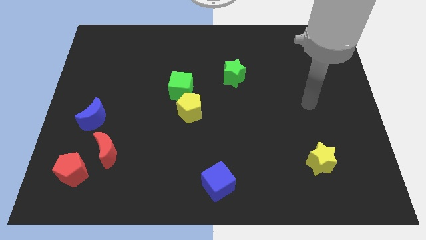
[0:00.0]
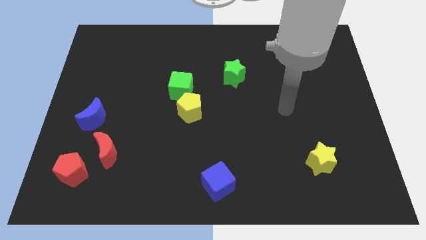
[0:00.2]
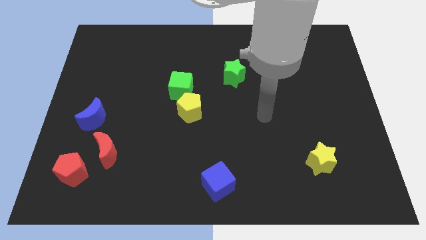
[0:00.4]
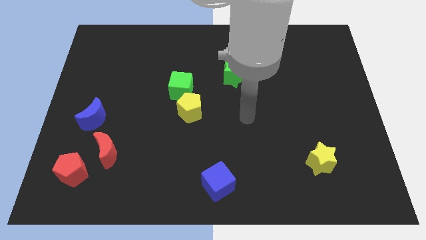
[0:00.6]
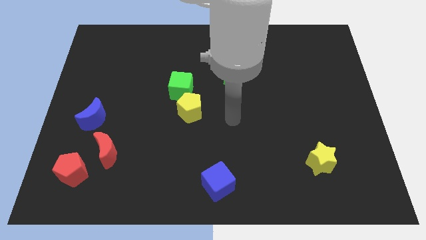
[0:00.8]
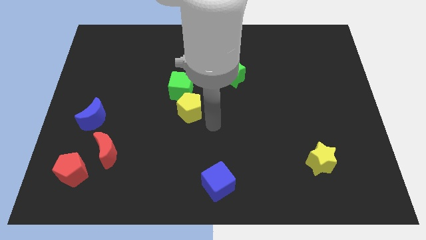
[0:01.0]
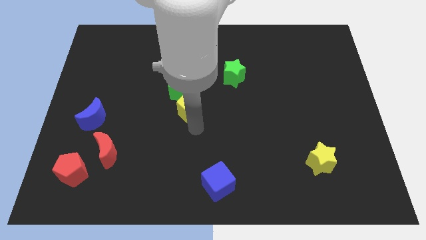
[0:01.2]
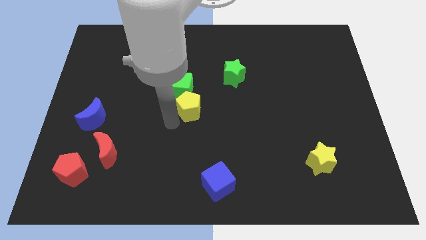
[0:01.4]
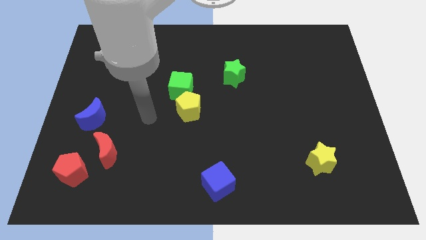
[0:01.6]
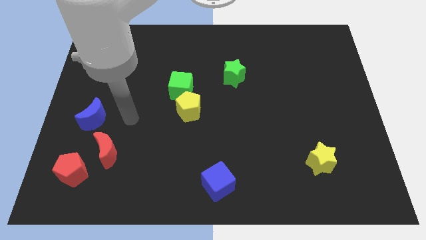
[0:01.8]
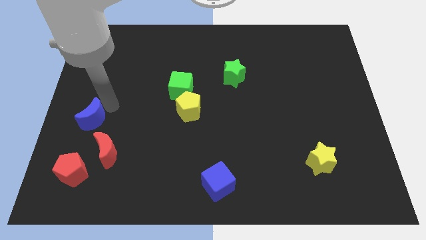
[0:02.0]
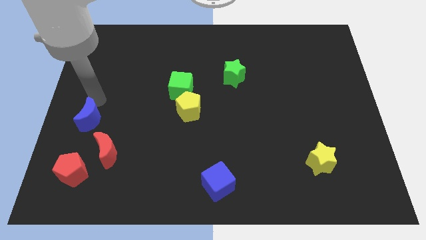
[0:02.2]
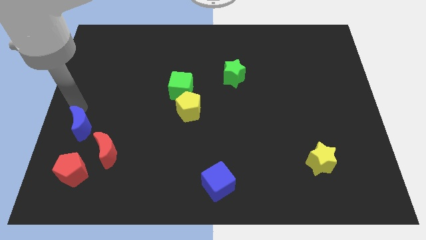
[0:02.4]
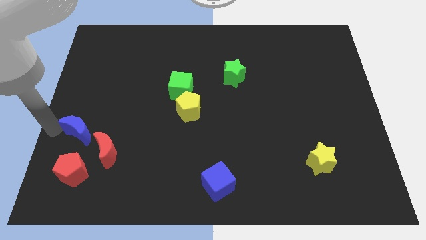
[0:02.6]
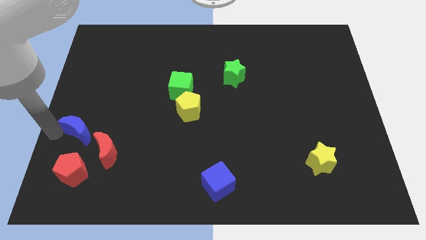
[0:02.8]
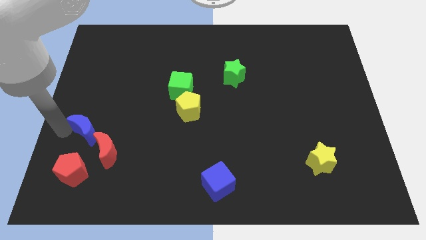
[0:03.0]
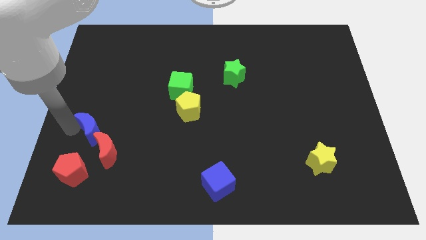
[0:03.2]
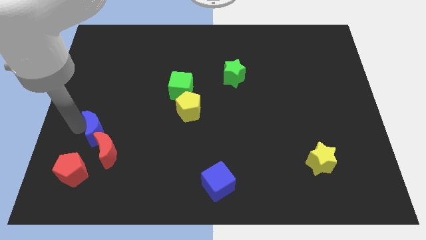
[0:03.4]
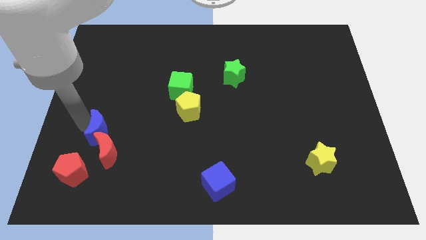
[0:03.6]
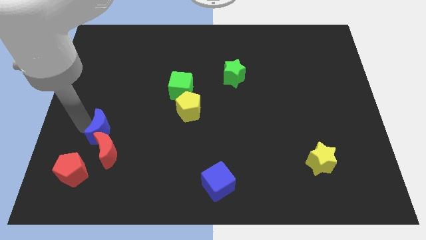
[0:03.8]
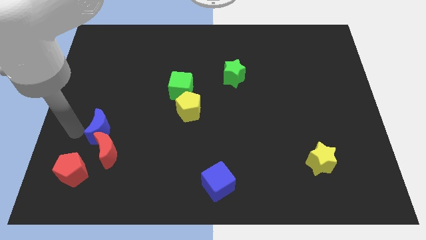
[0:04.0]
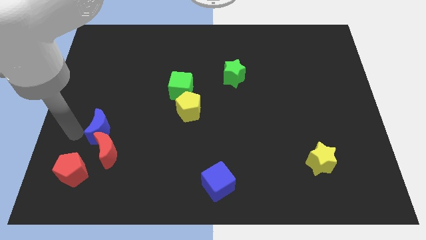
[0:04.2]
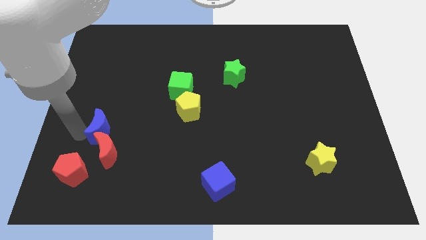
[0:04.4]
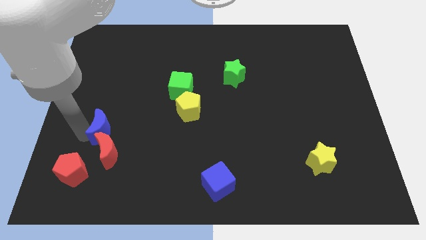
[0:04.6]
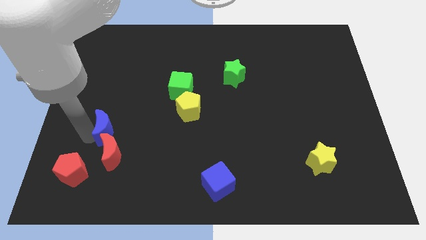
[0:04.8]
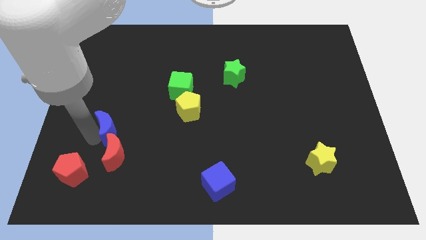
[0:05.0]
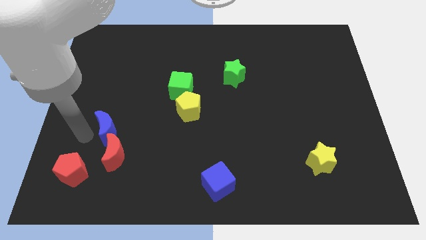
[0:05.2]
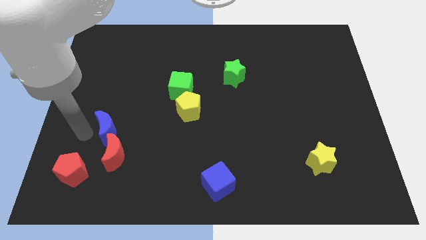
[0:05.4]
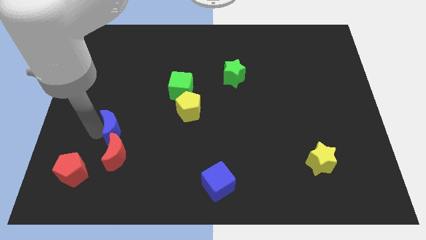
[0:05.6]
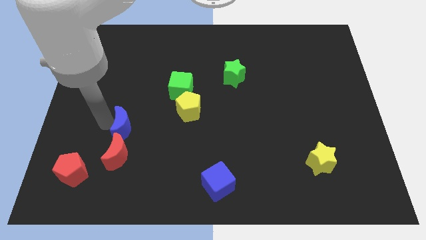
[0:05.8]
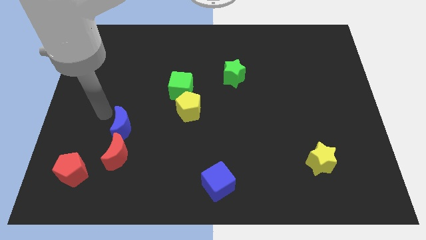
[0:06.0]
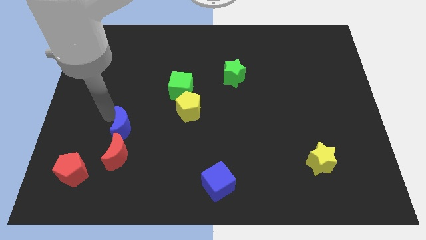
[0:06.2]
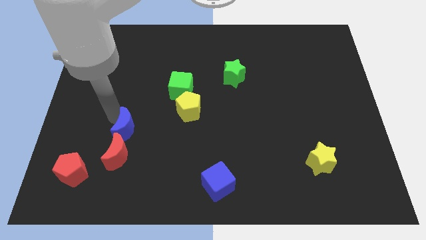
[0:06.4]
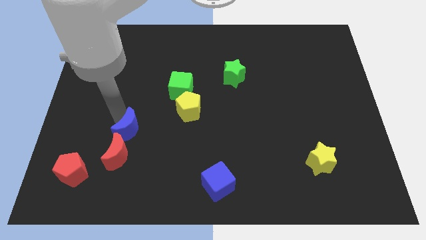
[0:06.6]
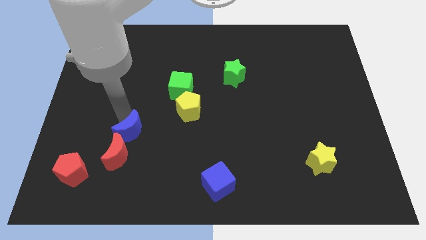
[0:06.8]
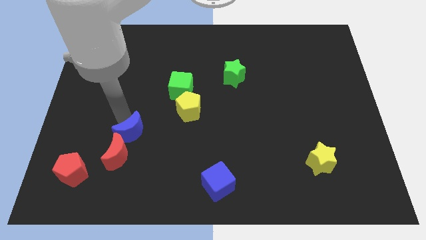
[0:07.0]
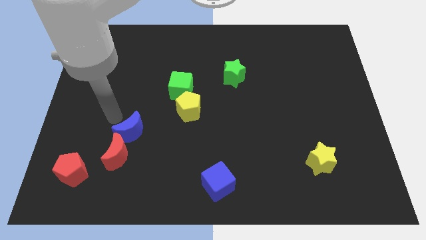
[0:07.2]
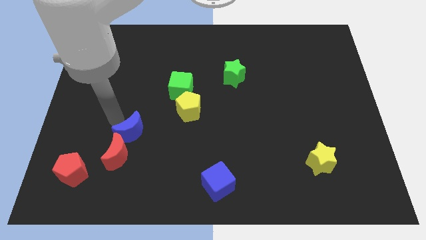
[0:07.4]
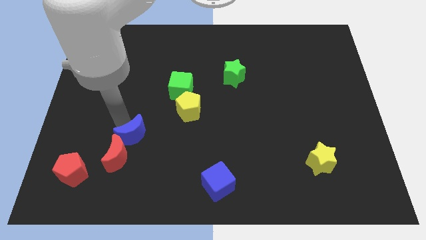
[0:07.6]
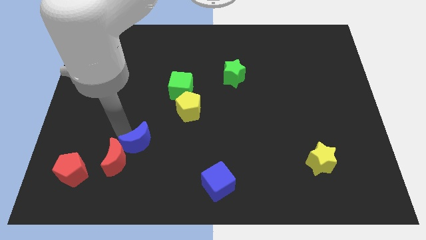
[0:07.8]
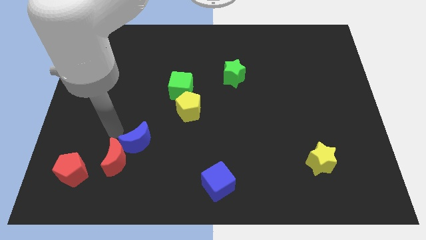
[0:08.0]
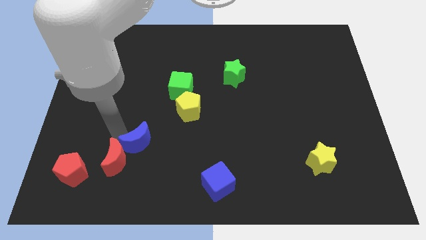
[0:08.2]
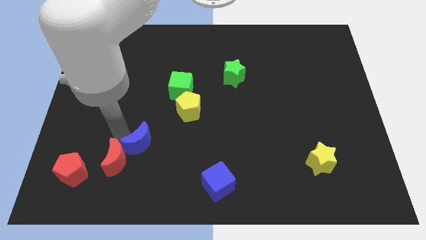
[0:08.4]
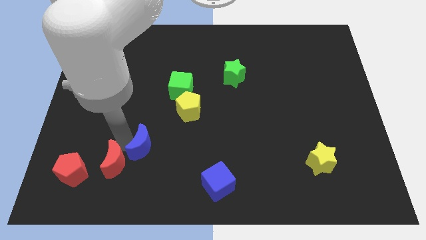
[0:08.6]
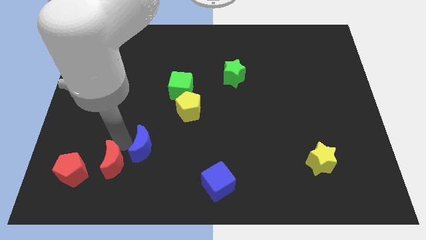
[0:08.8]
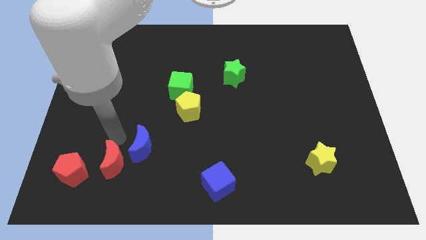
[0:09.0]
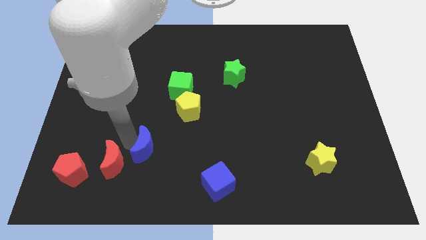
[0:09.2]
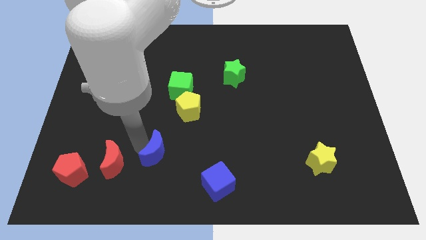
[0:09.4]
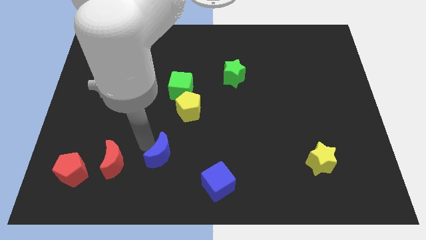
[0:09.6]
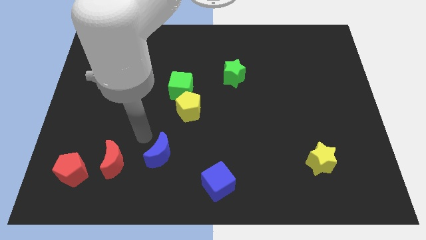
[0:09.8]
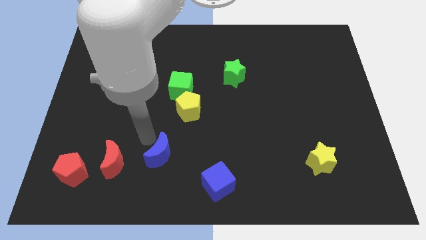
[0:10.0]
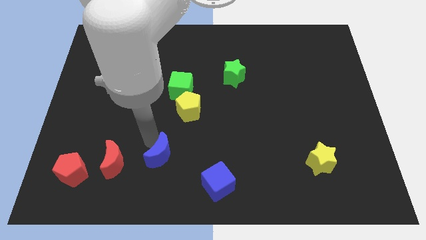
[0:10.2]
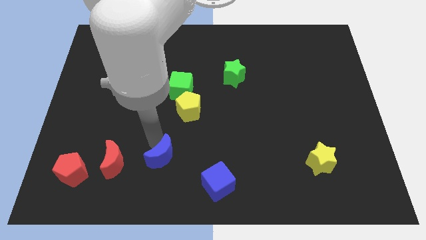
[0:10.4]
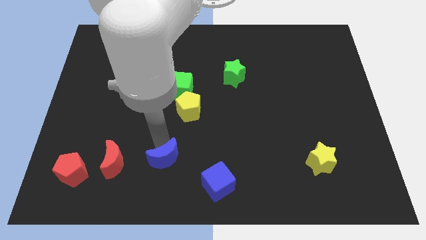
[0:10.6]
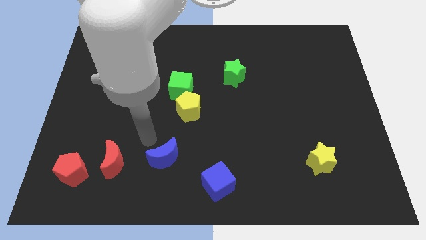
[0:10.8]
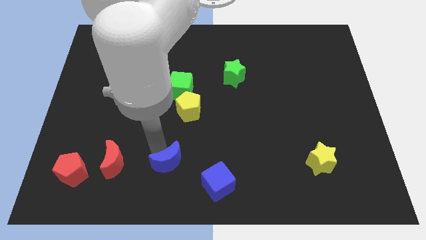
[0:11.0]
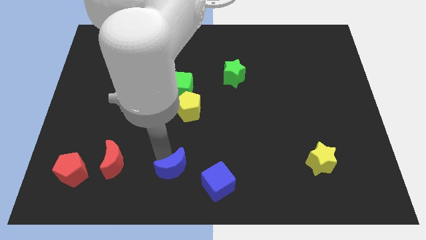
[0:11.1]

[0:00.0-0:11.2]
slide the blue moon to the bottom side
